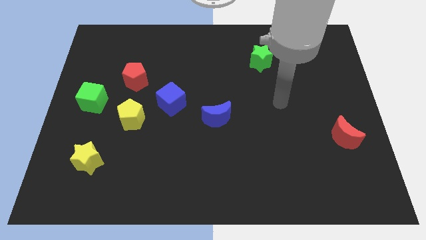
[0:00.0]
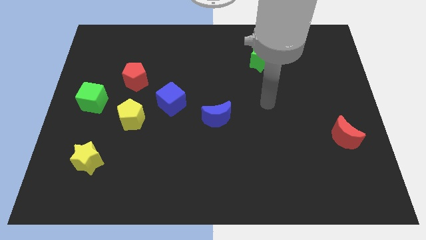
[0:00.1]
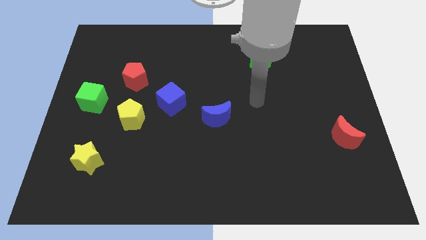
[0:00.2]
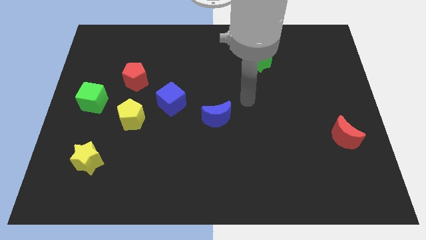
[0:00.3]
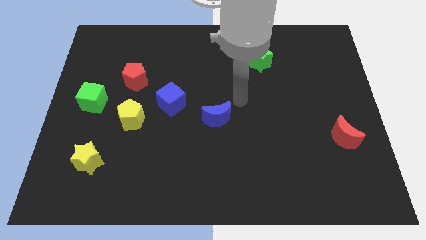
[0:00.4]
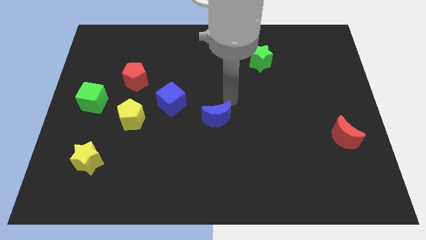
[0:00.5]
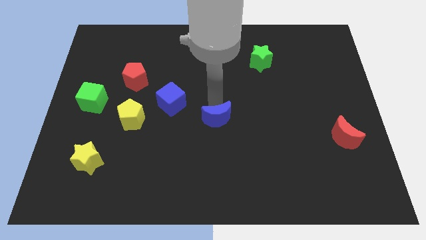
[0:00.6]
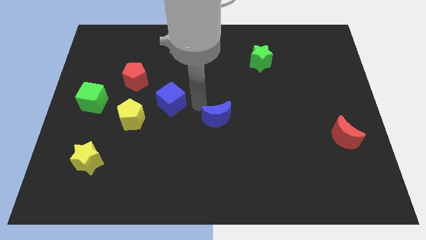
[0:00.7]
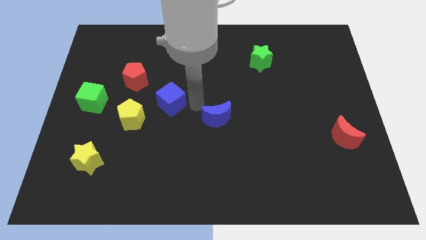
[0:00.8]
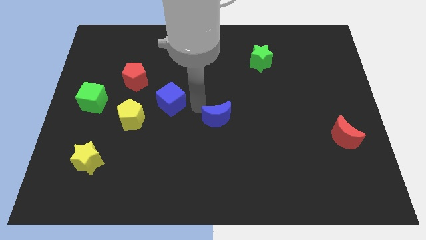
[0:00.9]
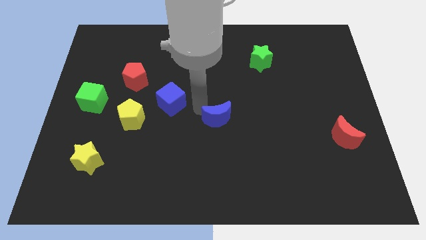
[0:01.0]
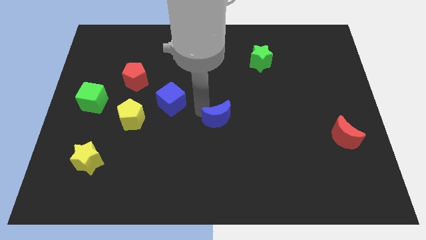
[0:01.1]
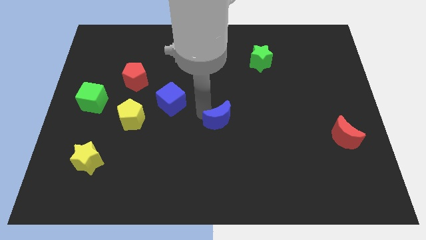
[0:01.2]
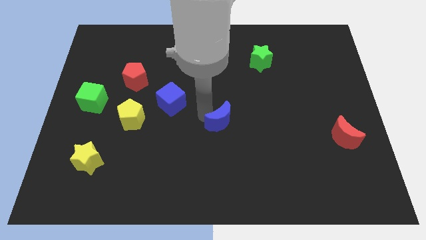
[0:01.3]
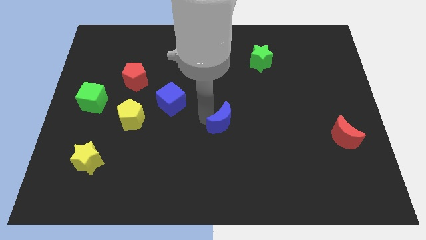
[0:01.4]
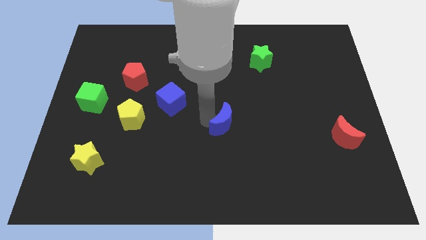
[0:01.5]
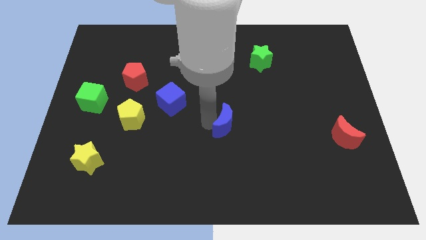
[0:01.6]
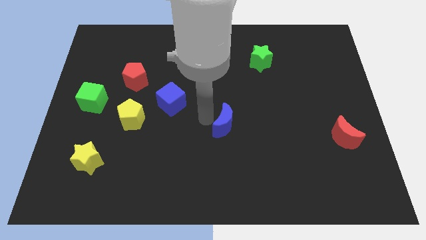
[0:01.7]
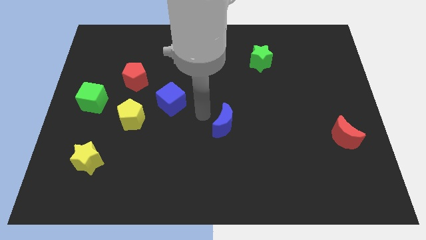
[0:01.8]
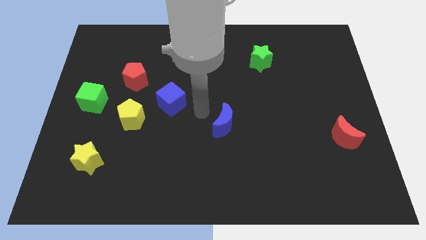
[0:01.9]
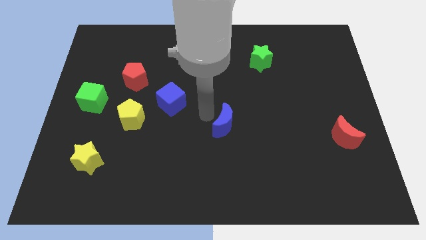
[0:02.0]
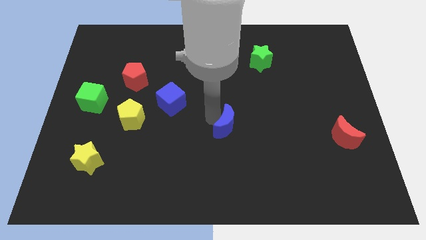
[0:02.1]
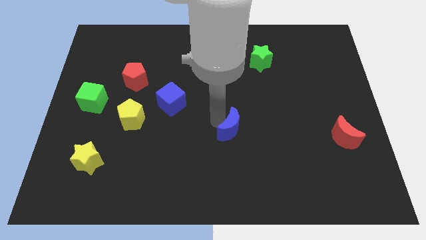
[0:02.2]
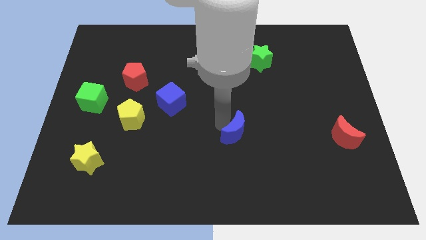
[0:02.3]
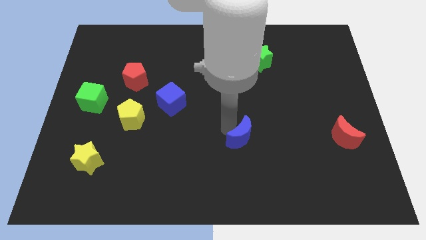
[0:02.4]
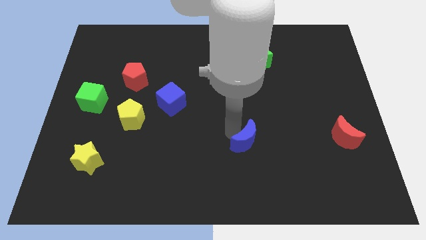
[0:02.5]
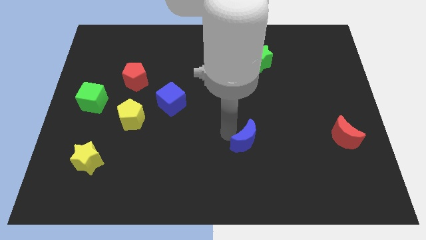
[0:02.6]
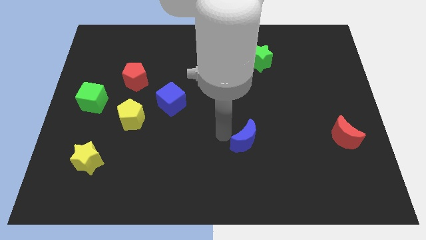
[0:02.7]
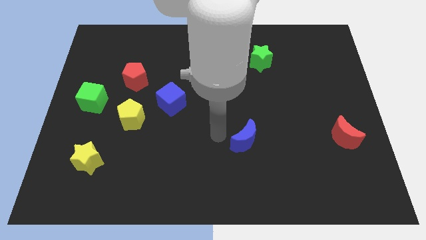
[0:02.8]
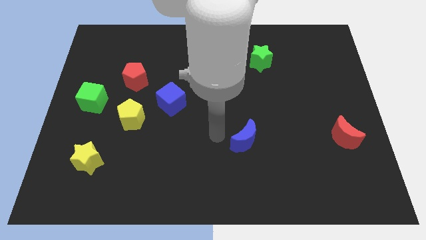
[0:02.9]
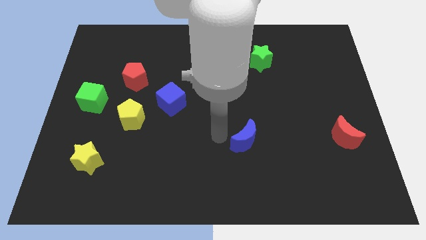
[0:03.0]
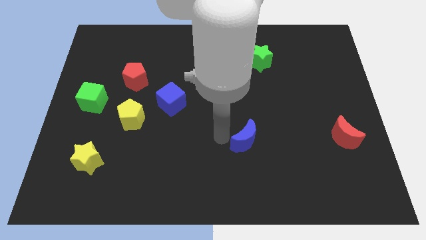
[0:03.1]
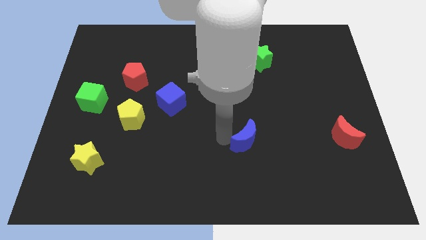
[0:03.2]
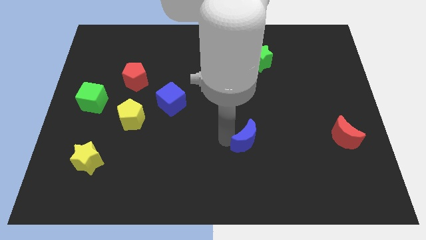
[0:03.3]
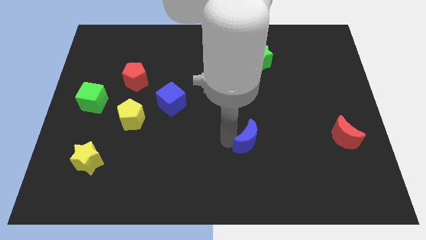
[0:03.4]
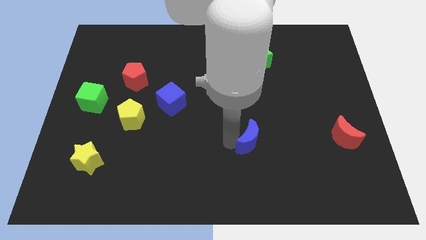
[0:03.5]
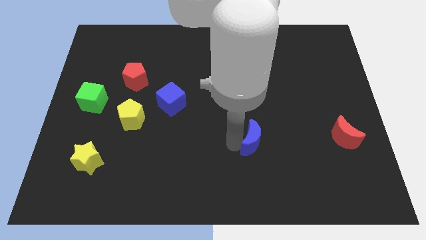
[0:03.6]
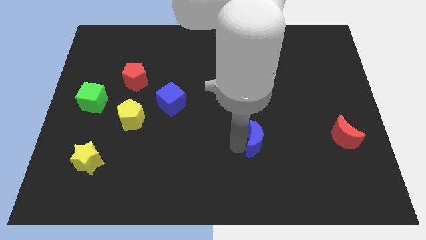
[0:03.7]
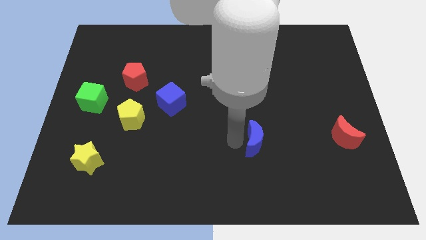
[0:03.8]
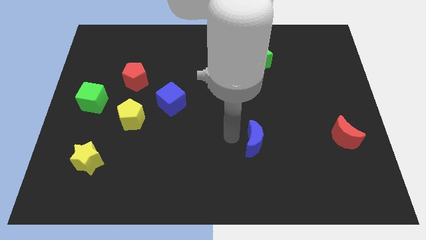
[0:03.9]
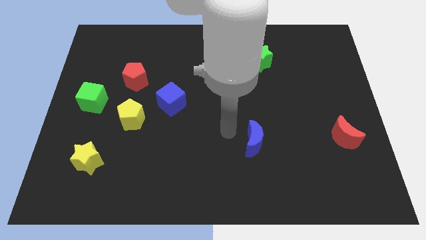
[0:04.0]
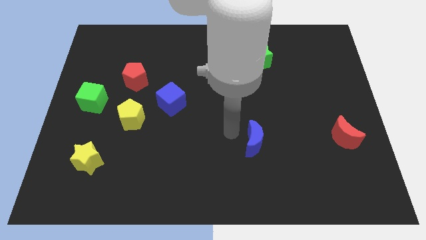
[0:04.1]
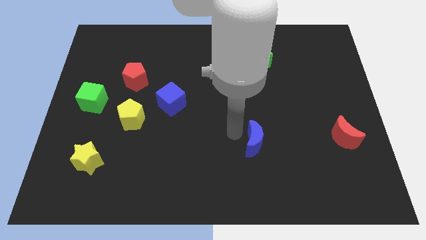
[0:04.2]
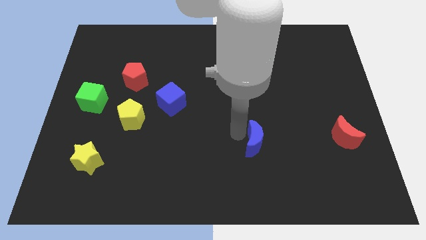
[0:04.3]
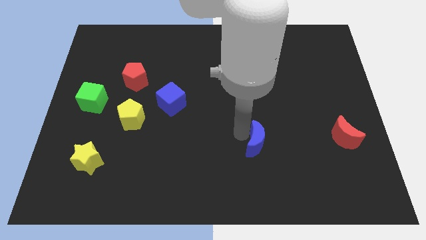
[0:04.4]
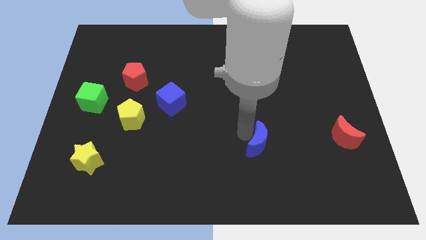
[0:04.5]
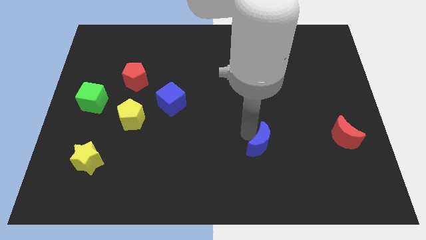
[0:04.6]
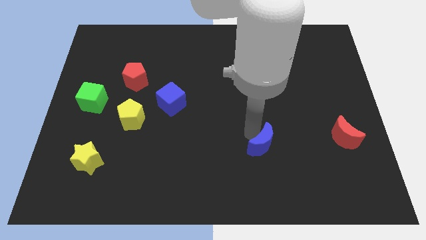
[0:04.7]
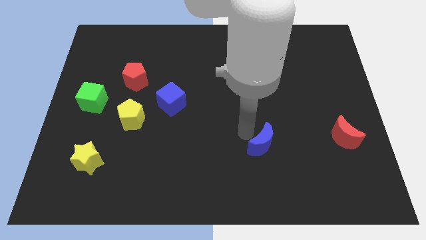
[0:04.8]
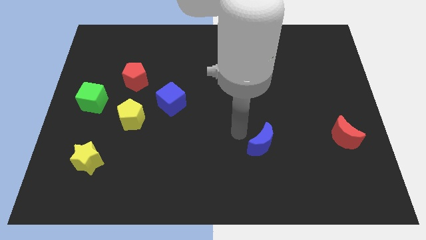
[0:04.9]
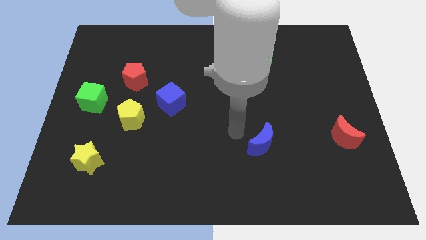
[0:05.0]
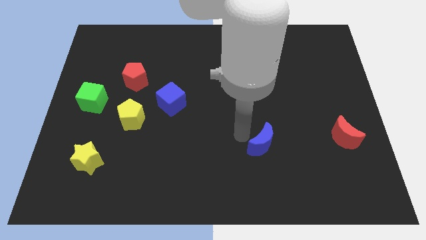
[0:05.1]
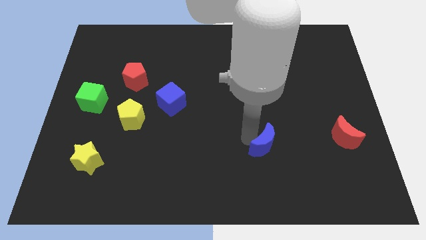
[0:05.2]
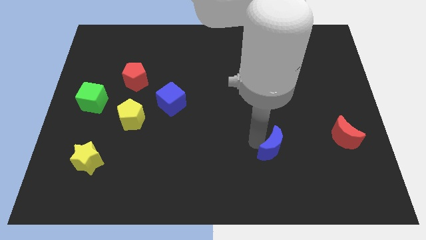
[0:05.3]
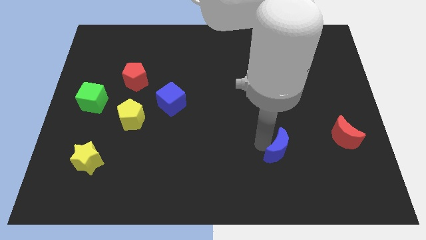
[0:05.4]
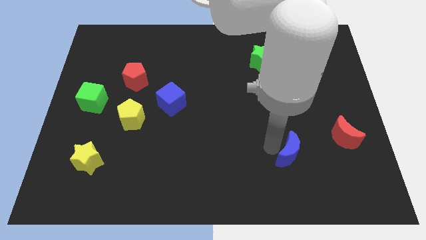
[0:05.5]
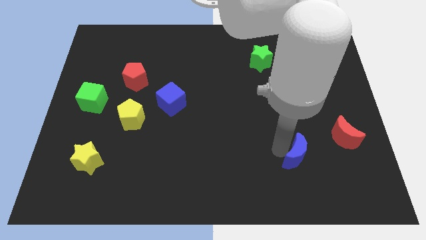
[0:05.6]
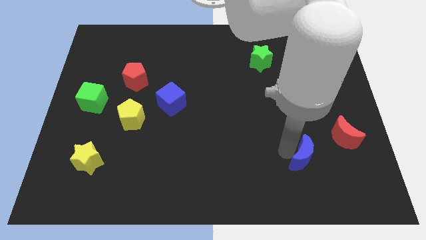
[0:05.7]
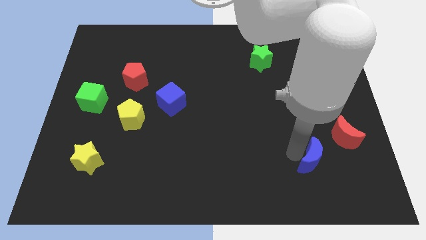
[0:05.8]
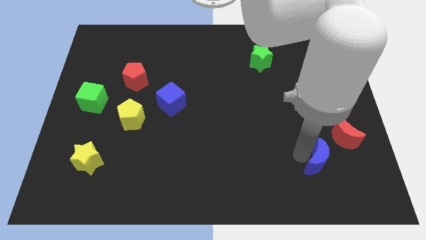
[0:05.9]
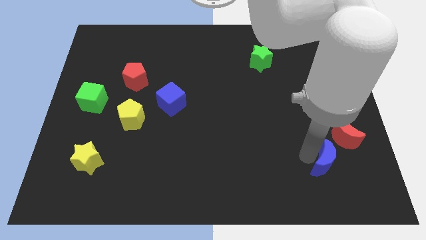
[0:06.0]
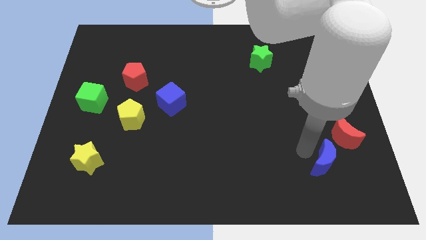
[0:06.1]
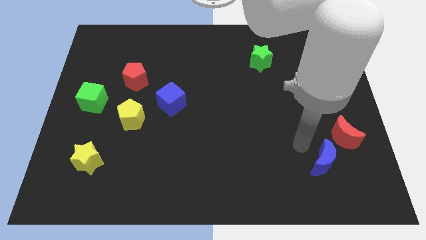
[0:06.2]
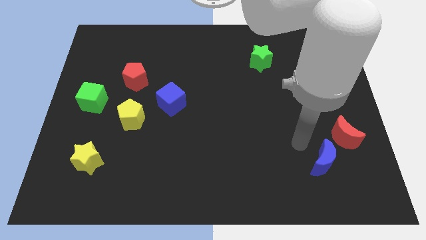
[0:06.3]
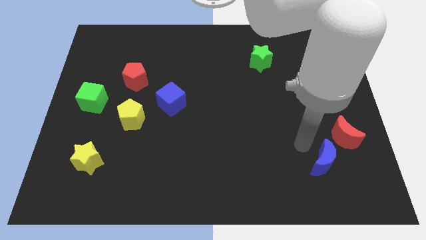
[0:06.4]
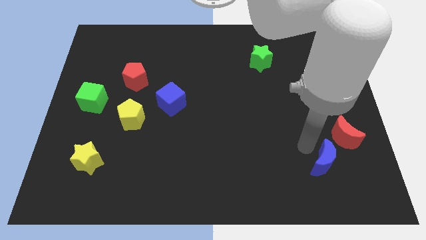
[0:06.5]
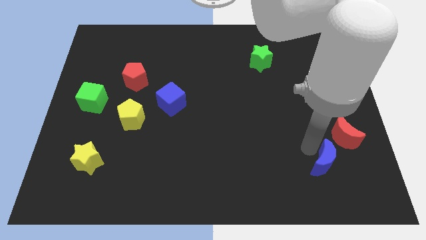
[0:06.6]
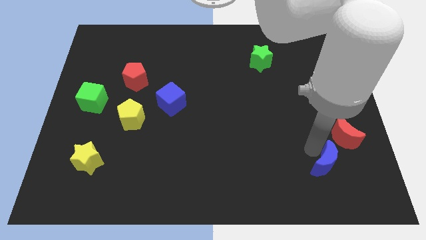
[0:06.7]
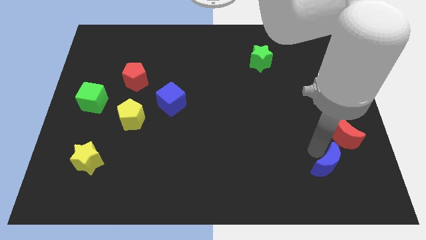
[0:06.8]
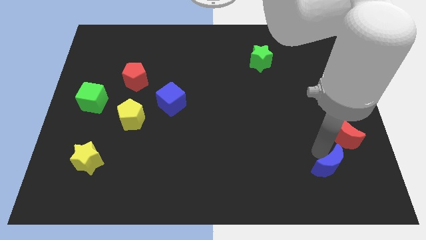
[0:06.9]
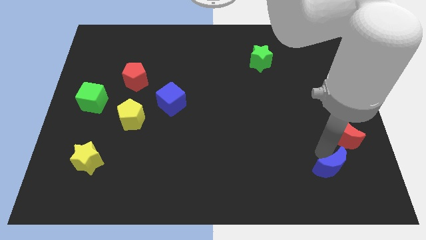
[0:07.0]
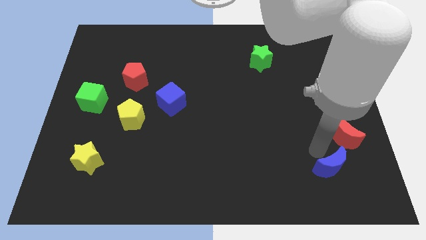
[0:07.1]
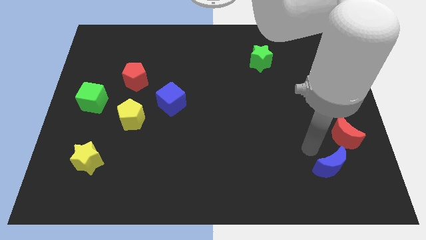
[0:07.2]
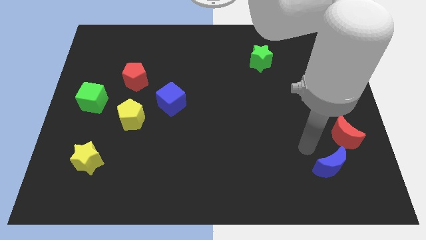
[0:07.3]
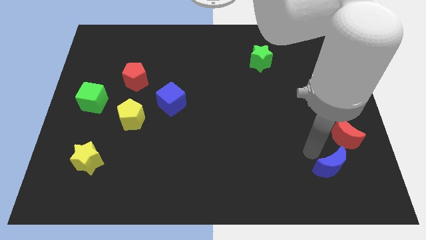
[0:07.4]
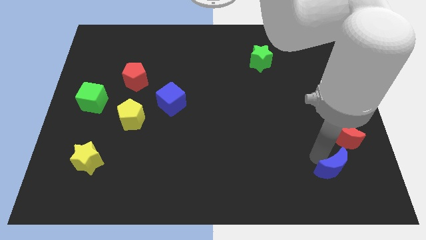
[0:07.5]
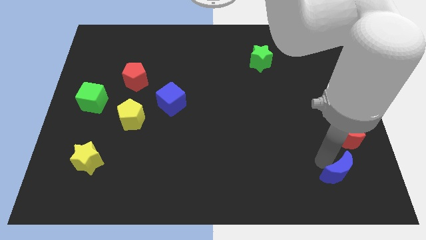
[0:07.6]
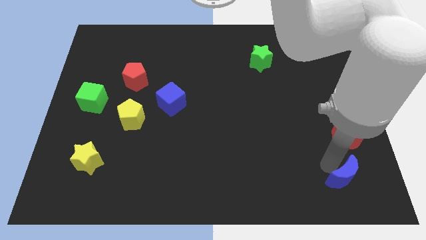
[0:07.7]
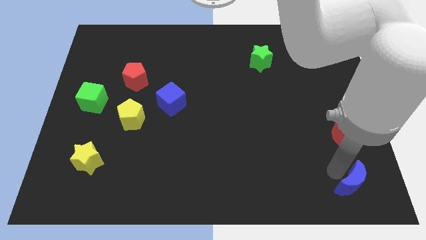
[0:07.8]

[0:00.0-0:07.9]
push the blue moon to the lower right corner
